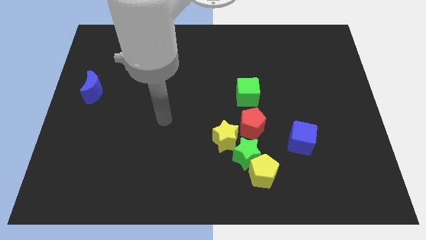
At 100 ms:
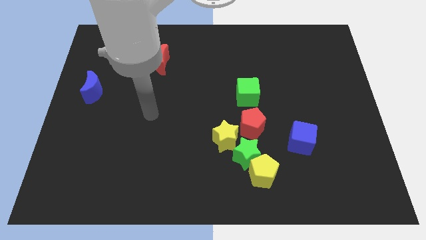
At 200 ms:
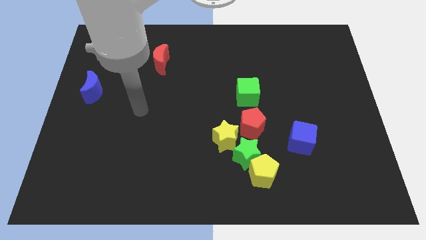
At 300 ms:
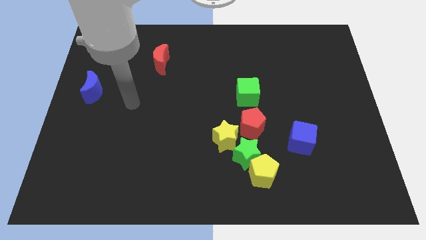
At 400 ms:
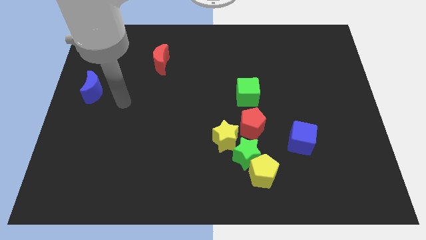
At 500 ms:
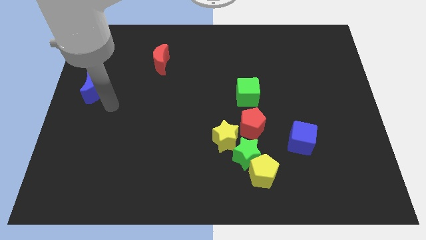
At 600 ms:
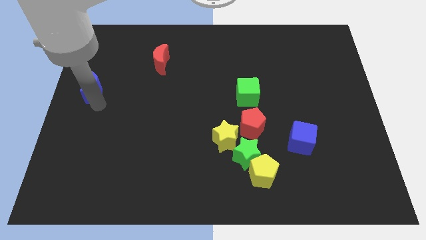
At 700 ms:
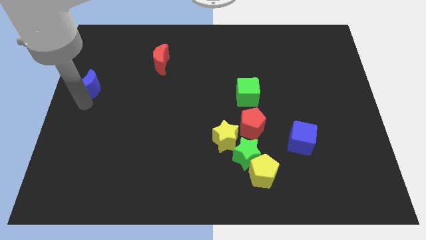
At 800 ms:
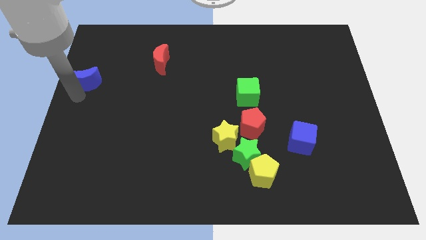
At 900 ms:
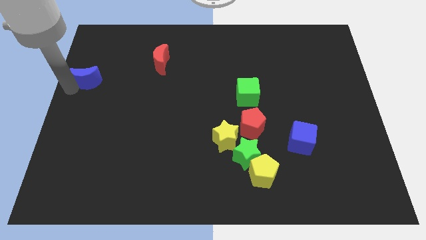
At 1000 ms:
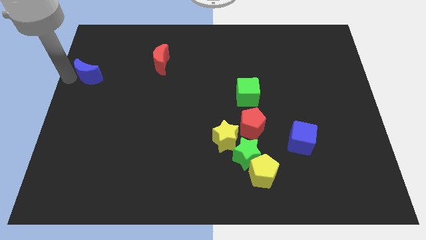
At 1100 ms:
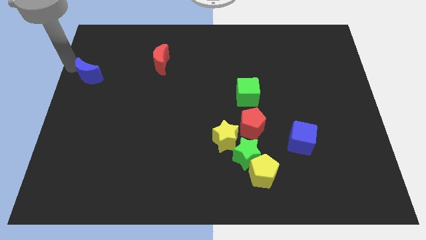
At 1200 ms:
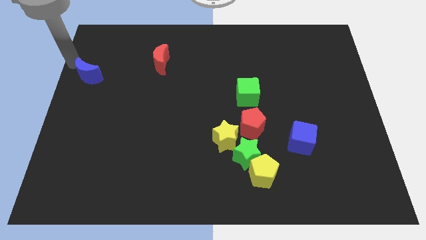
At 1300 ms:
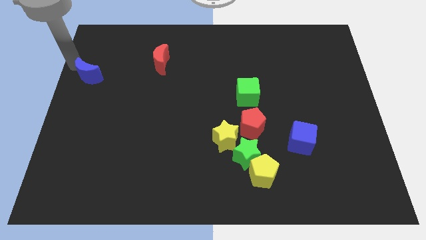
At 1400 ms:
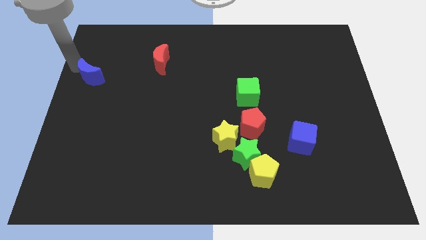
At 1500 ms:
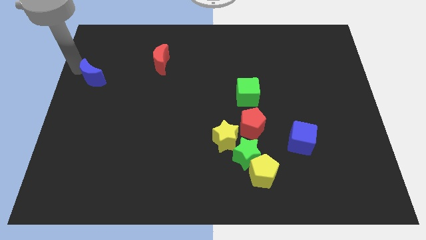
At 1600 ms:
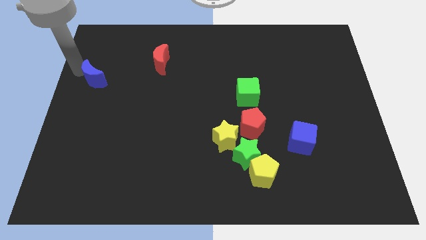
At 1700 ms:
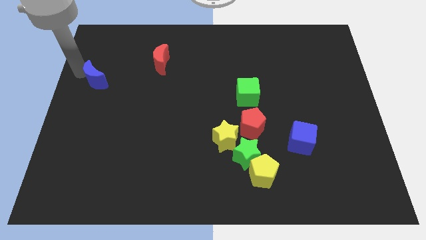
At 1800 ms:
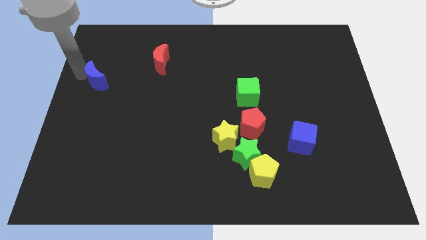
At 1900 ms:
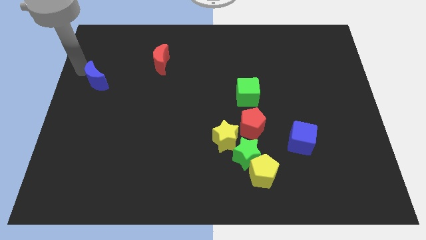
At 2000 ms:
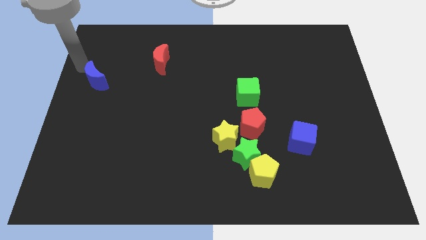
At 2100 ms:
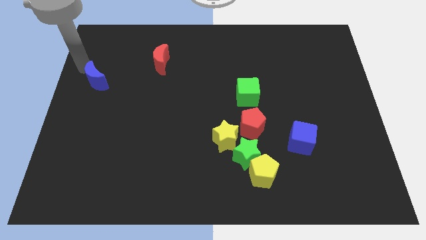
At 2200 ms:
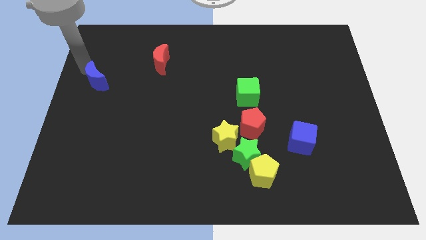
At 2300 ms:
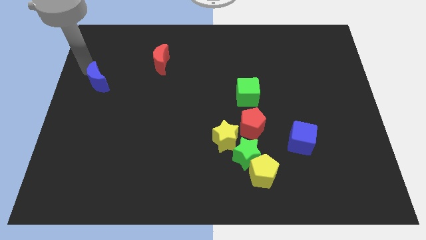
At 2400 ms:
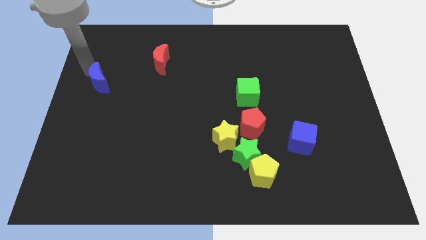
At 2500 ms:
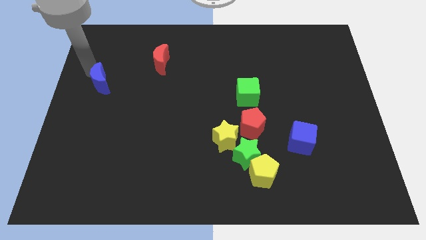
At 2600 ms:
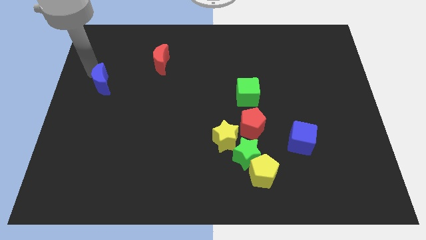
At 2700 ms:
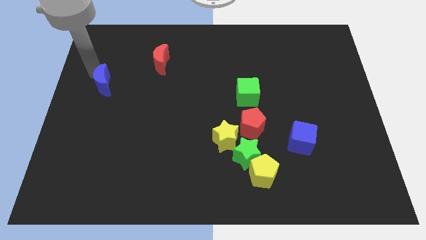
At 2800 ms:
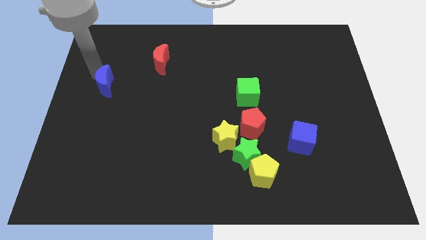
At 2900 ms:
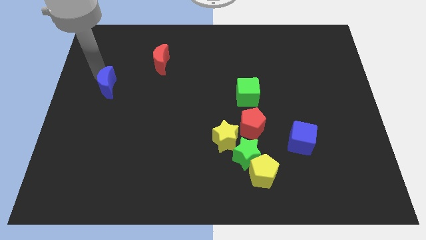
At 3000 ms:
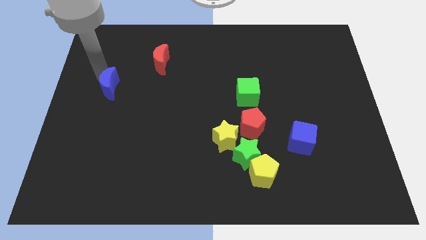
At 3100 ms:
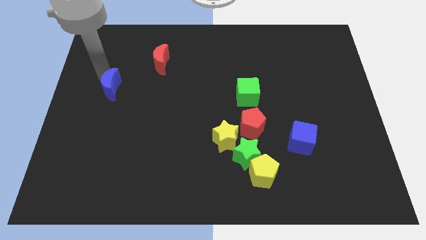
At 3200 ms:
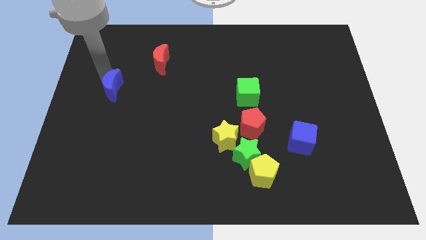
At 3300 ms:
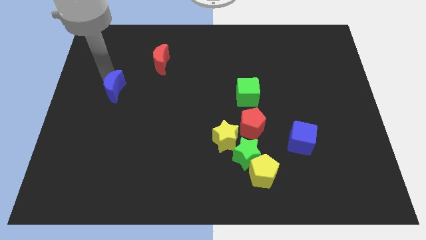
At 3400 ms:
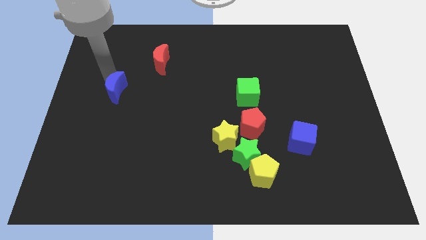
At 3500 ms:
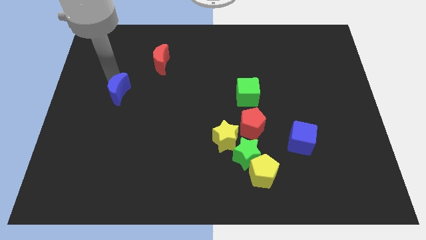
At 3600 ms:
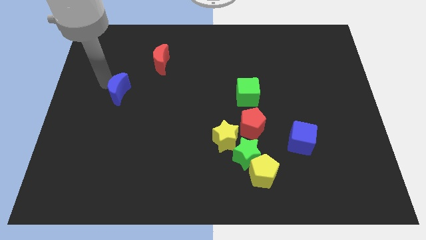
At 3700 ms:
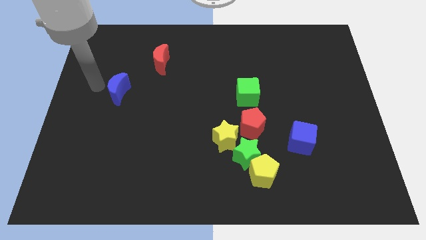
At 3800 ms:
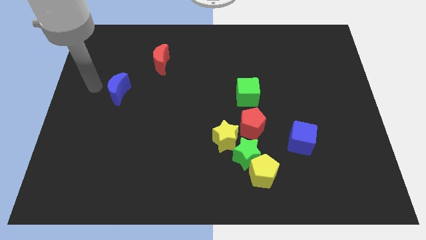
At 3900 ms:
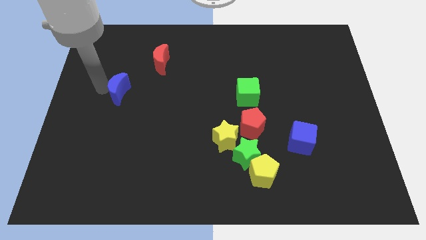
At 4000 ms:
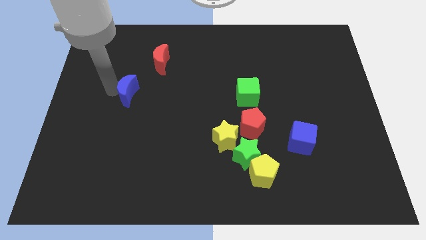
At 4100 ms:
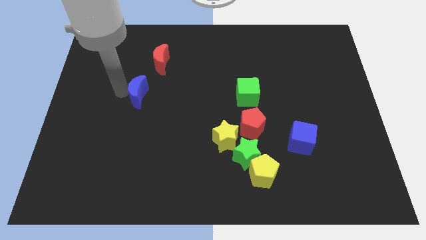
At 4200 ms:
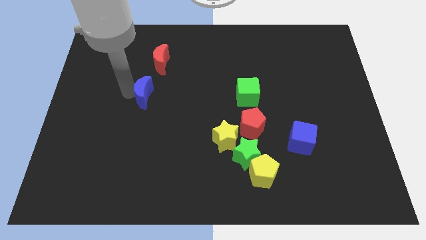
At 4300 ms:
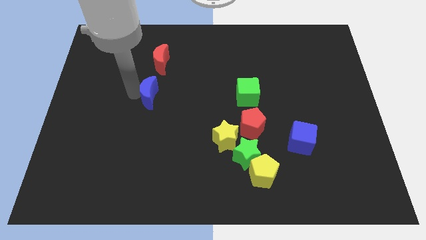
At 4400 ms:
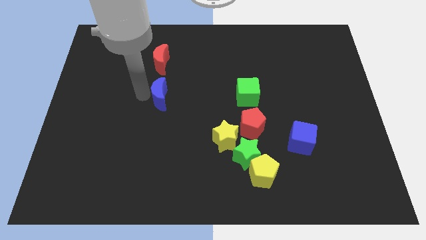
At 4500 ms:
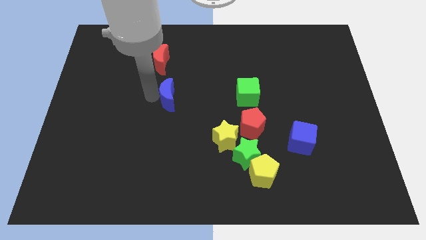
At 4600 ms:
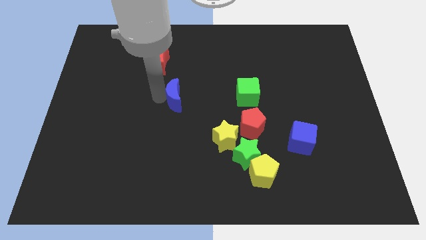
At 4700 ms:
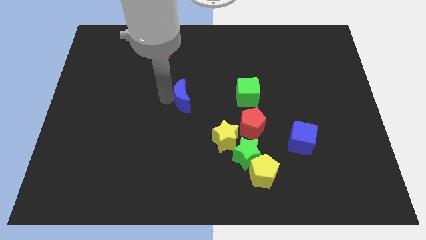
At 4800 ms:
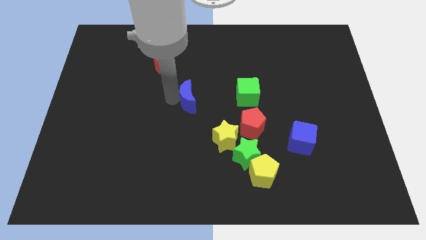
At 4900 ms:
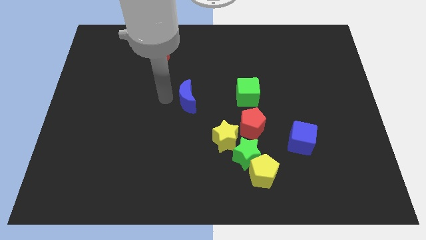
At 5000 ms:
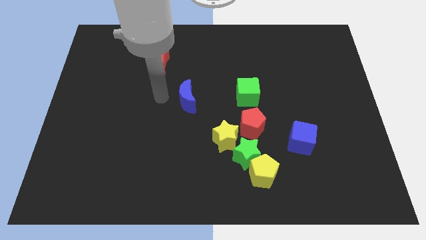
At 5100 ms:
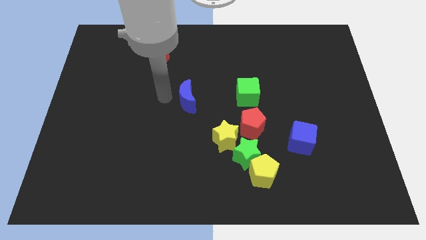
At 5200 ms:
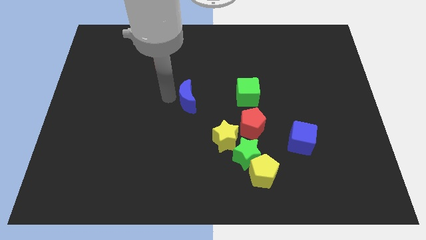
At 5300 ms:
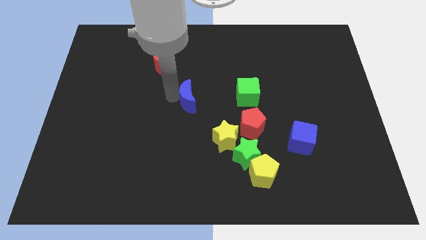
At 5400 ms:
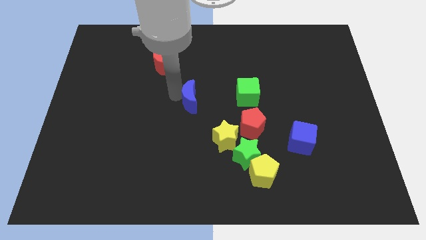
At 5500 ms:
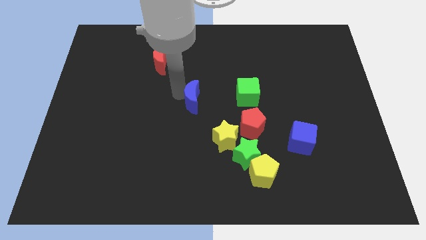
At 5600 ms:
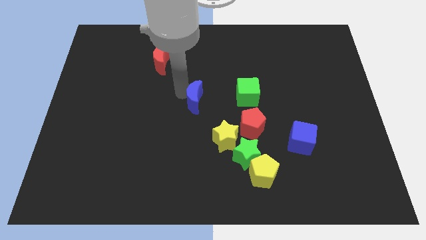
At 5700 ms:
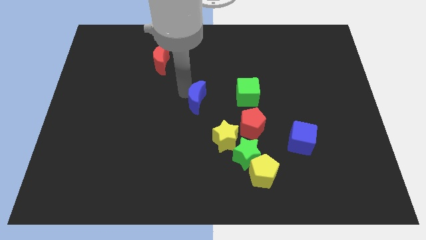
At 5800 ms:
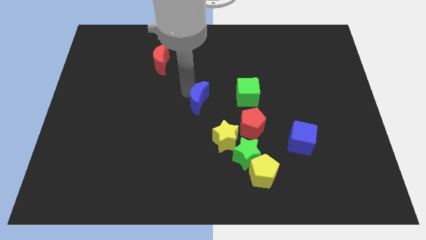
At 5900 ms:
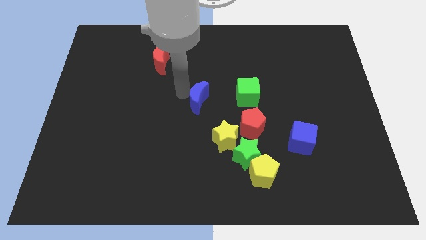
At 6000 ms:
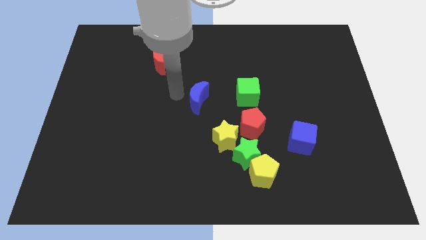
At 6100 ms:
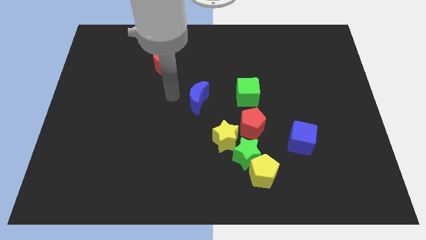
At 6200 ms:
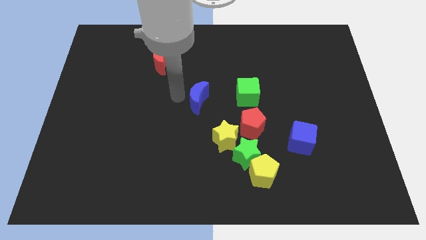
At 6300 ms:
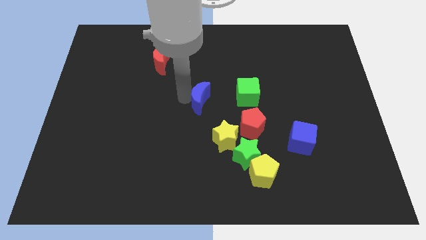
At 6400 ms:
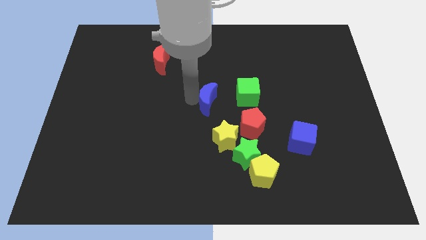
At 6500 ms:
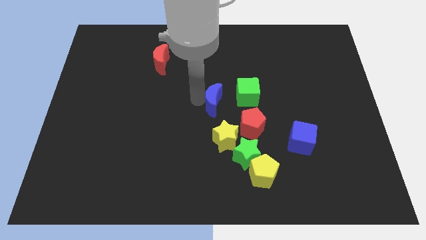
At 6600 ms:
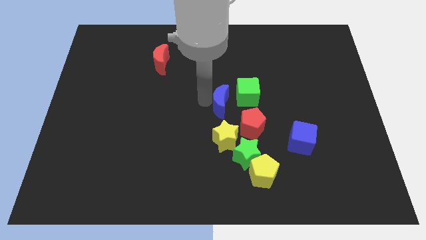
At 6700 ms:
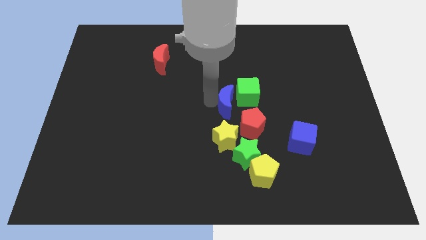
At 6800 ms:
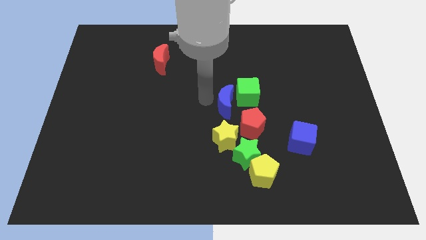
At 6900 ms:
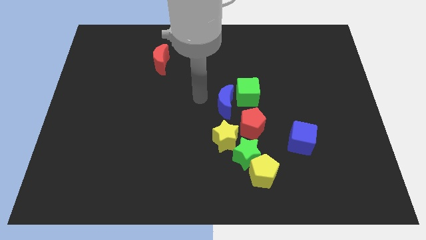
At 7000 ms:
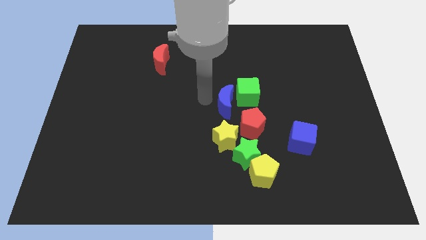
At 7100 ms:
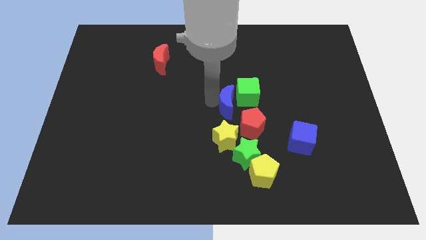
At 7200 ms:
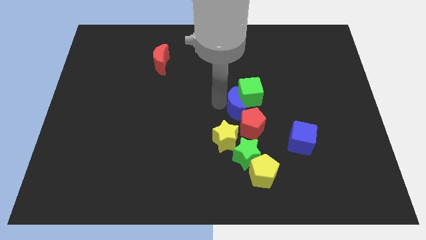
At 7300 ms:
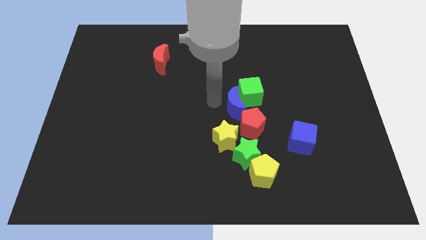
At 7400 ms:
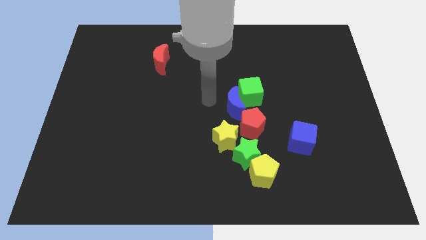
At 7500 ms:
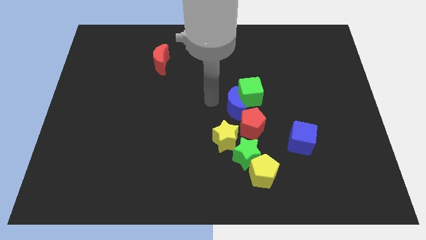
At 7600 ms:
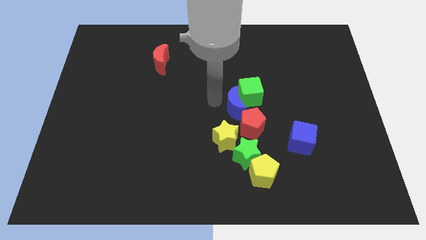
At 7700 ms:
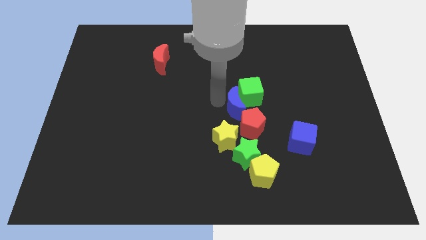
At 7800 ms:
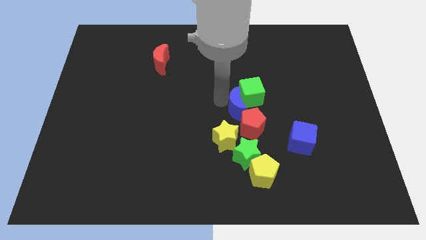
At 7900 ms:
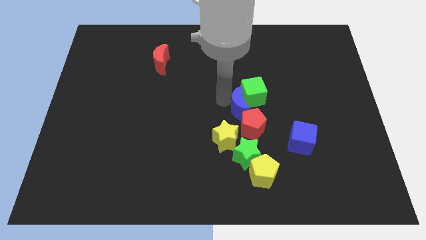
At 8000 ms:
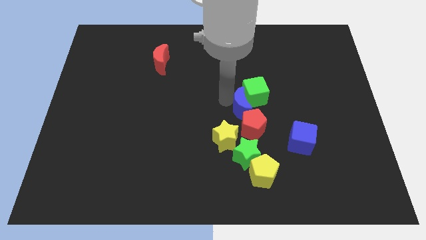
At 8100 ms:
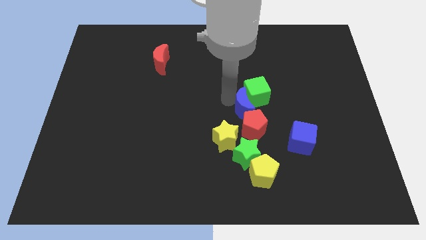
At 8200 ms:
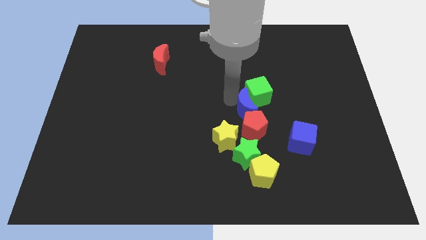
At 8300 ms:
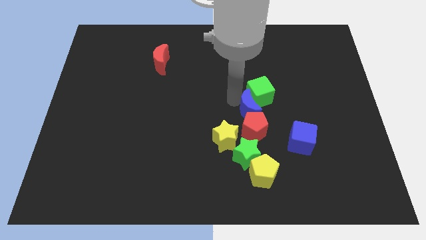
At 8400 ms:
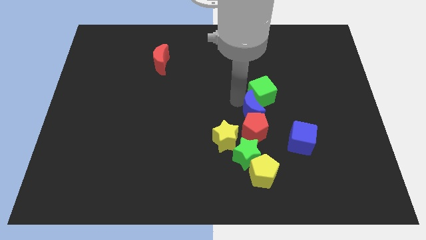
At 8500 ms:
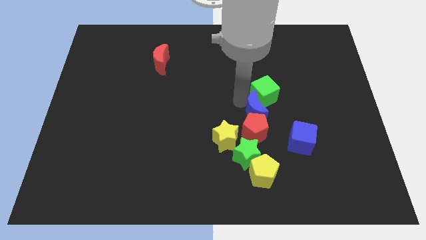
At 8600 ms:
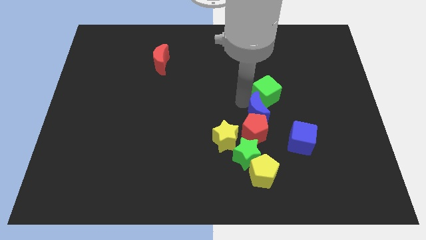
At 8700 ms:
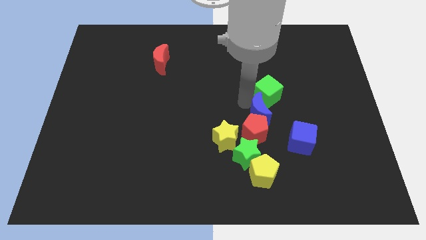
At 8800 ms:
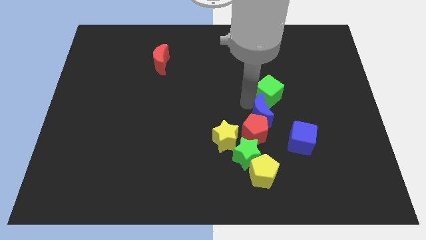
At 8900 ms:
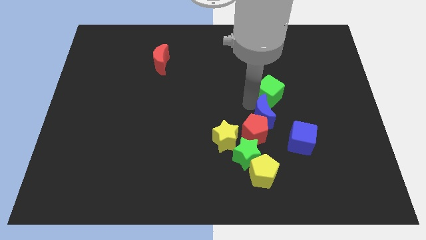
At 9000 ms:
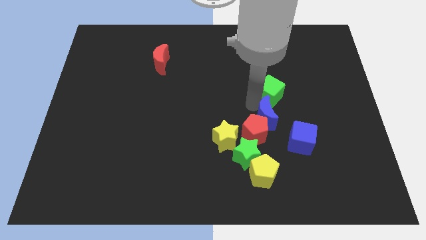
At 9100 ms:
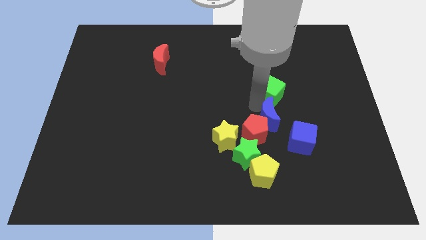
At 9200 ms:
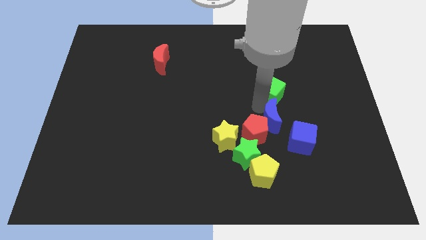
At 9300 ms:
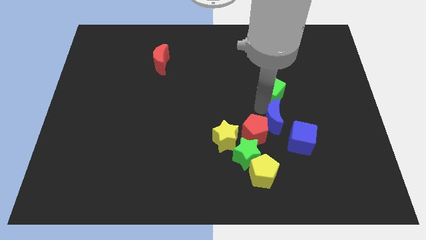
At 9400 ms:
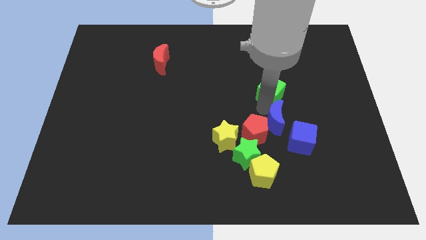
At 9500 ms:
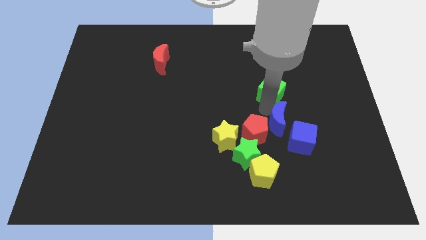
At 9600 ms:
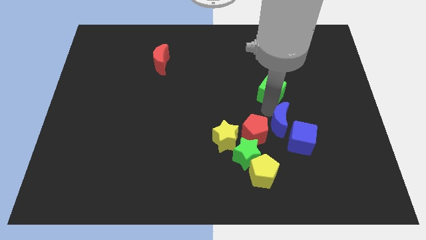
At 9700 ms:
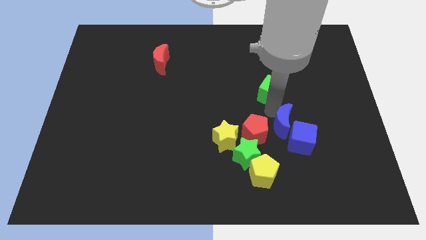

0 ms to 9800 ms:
put the blue moon towards the blue cube
